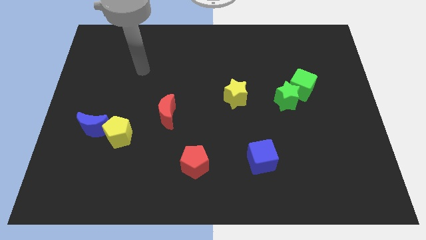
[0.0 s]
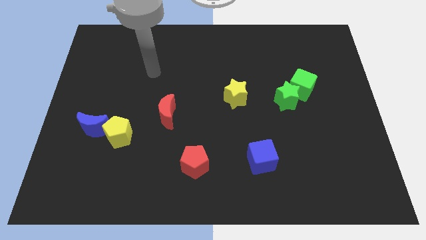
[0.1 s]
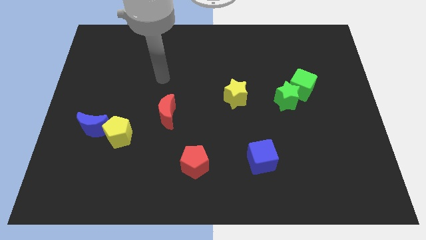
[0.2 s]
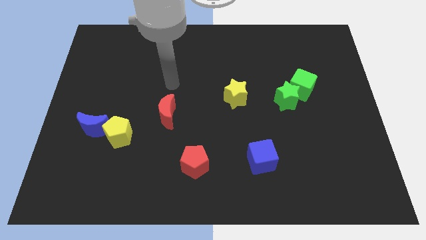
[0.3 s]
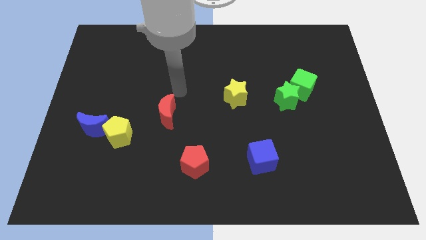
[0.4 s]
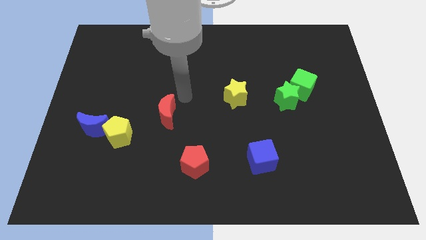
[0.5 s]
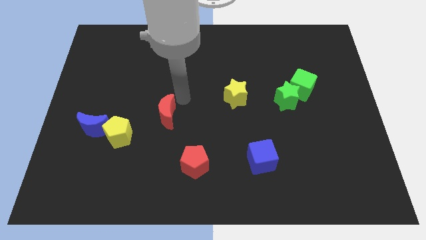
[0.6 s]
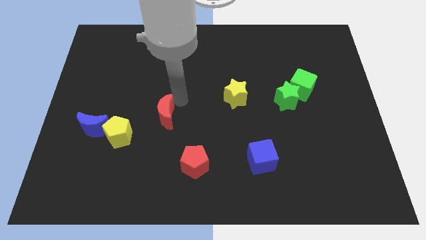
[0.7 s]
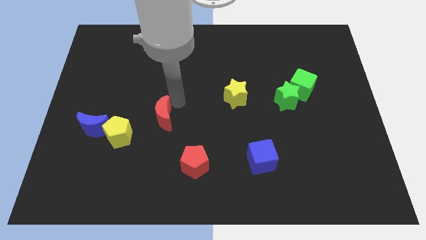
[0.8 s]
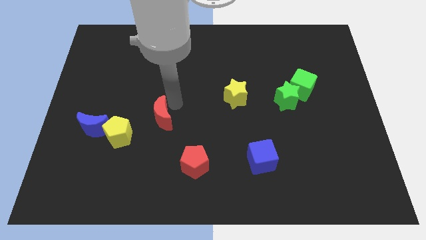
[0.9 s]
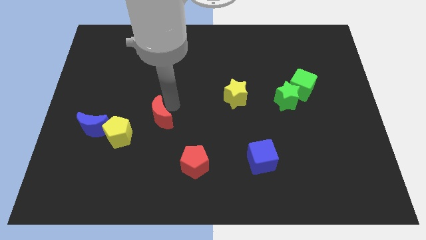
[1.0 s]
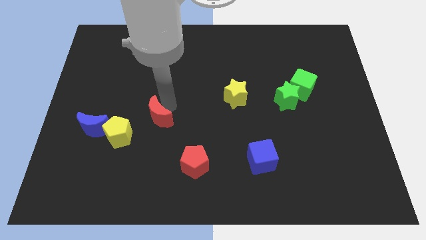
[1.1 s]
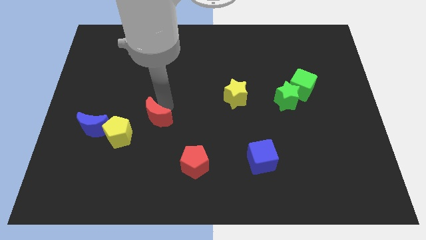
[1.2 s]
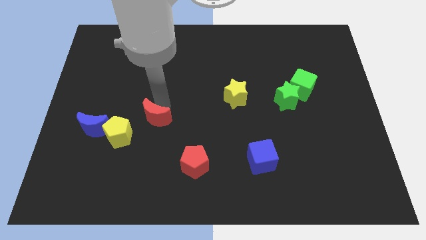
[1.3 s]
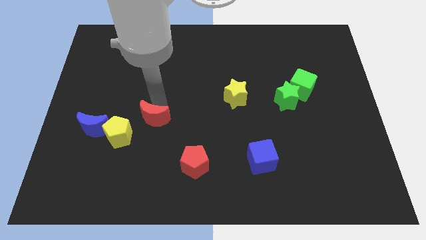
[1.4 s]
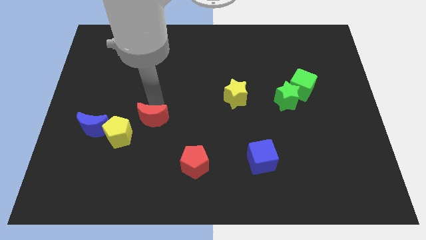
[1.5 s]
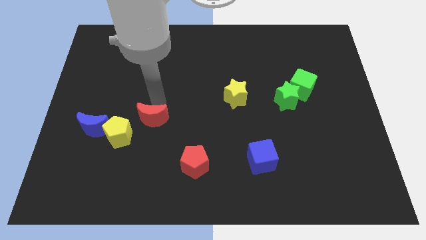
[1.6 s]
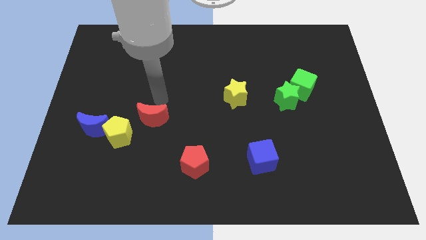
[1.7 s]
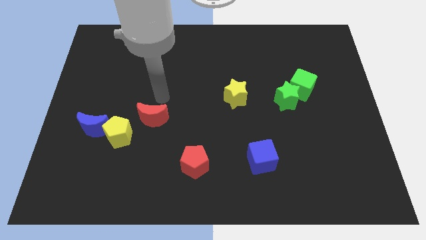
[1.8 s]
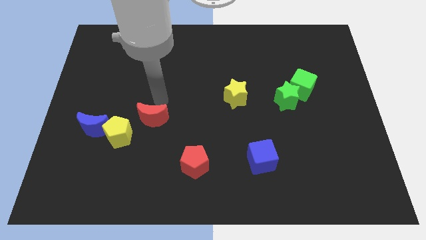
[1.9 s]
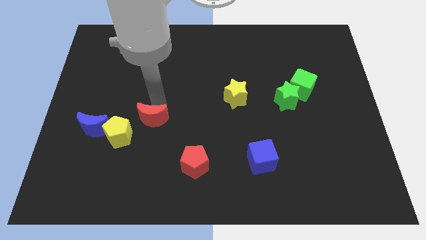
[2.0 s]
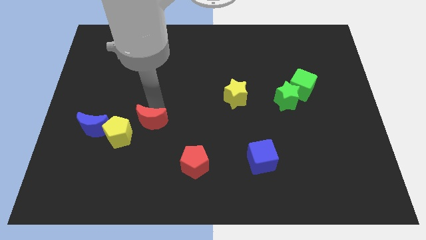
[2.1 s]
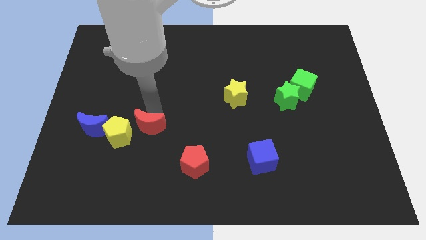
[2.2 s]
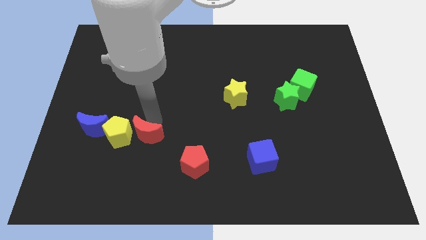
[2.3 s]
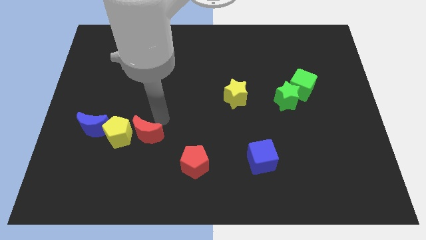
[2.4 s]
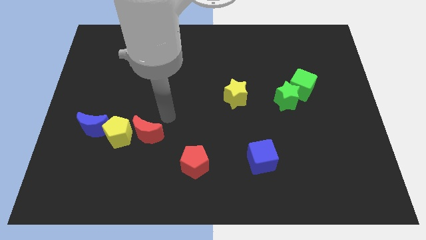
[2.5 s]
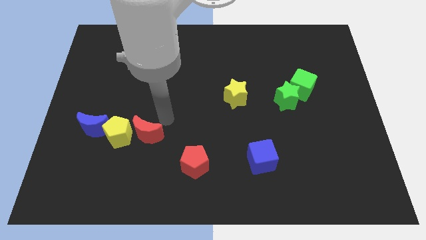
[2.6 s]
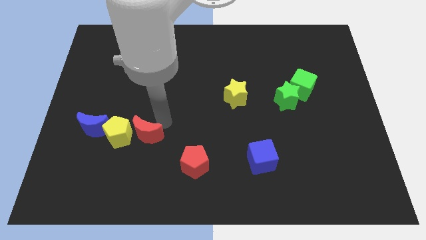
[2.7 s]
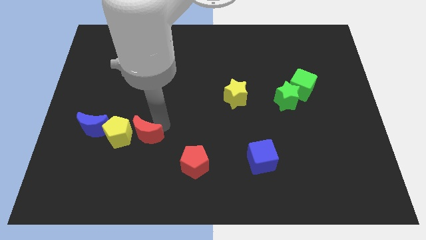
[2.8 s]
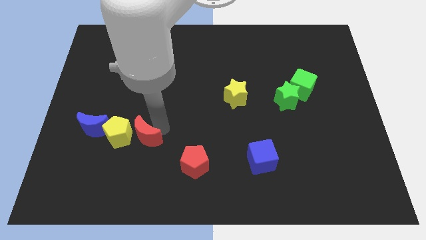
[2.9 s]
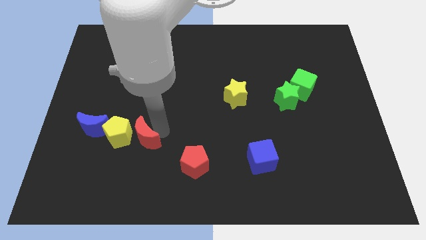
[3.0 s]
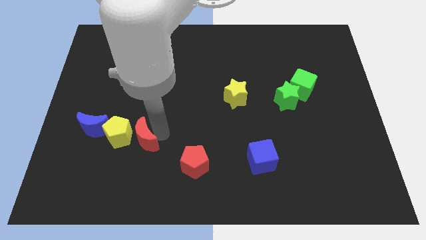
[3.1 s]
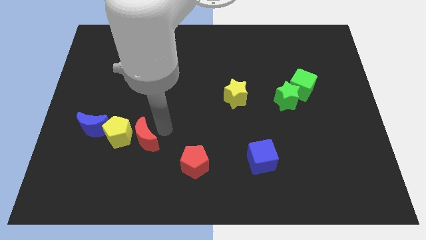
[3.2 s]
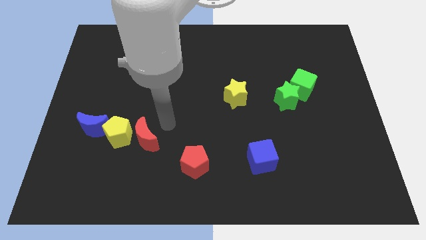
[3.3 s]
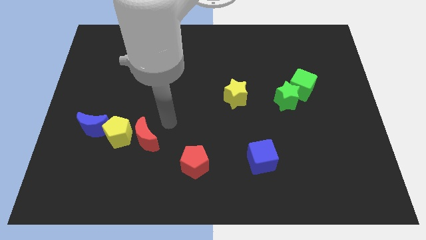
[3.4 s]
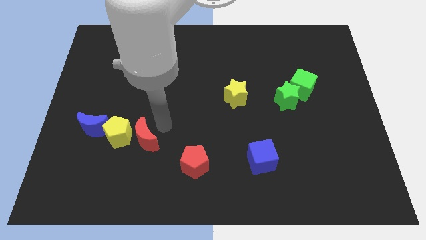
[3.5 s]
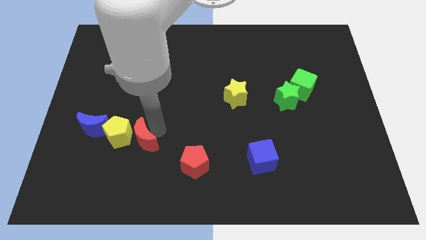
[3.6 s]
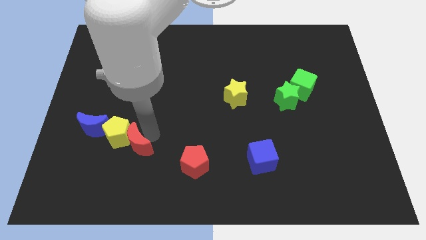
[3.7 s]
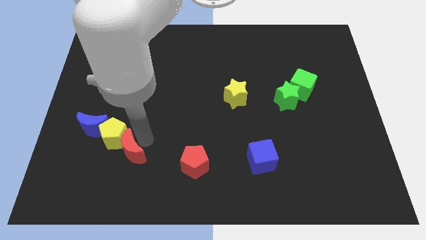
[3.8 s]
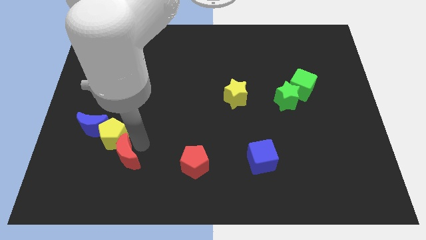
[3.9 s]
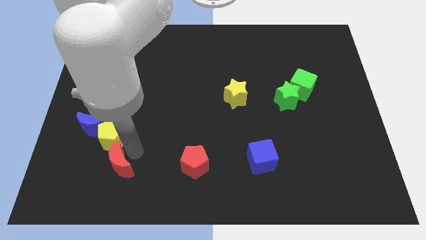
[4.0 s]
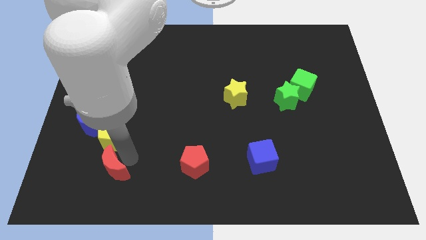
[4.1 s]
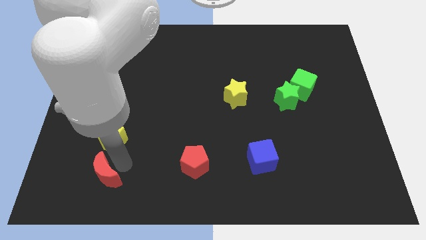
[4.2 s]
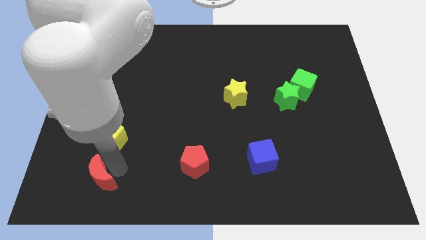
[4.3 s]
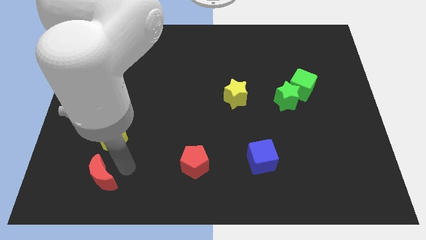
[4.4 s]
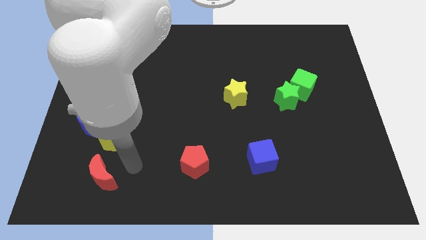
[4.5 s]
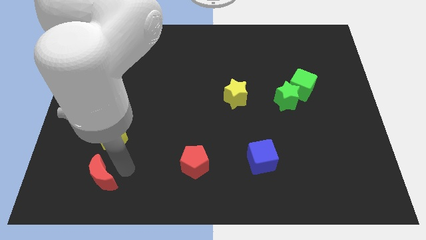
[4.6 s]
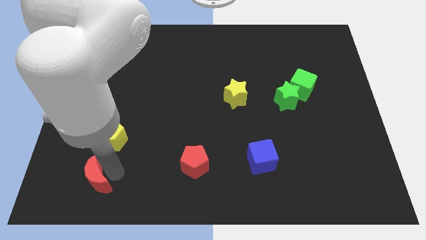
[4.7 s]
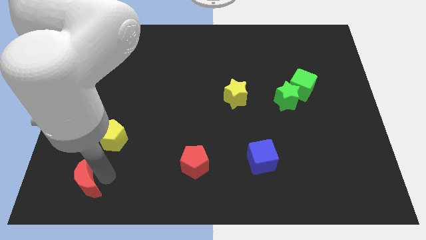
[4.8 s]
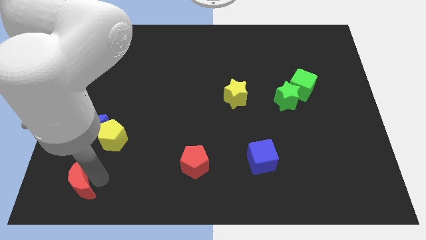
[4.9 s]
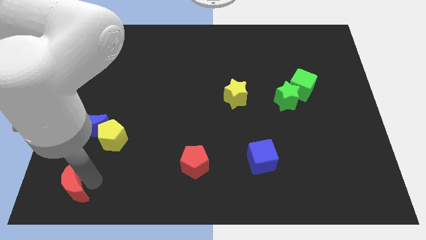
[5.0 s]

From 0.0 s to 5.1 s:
slide the red moon to the bottom left corner

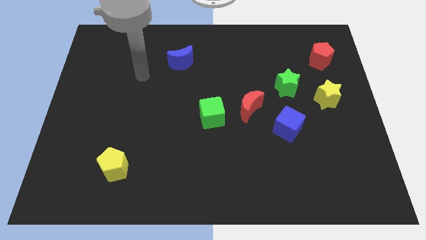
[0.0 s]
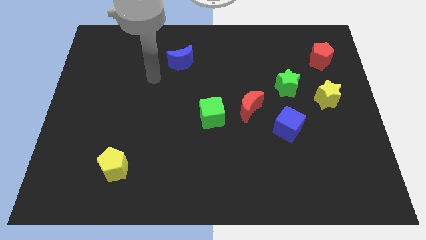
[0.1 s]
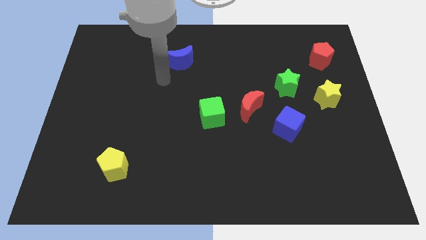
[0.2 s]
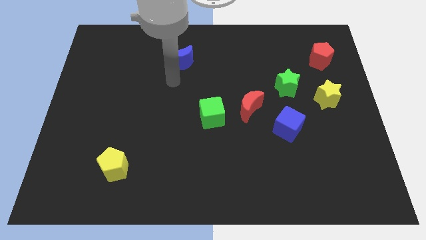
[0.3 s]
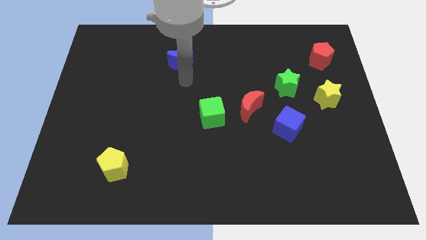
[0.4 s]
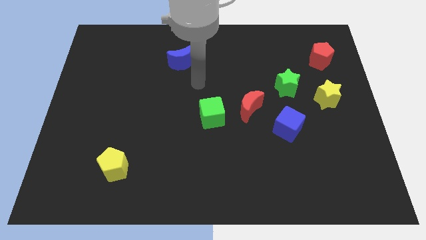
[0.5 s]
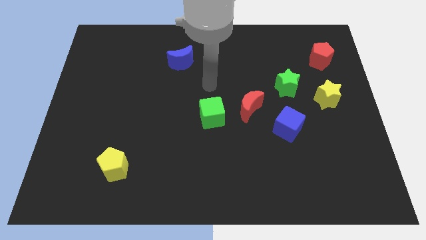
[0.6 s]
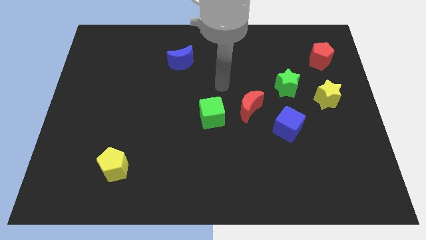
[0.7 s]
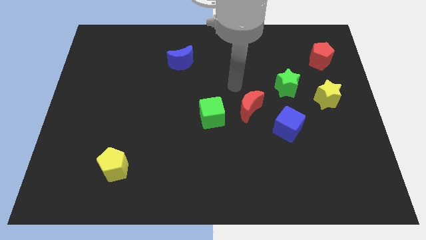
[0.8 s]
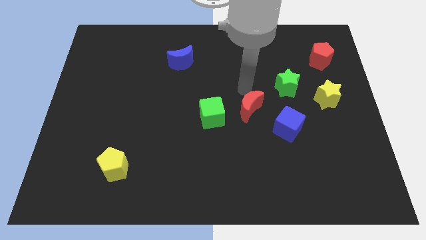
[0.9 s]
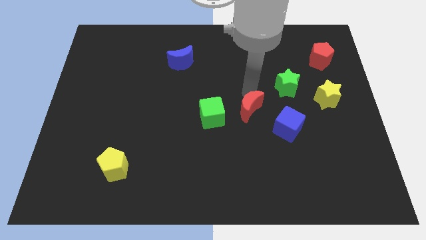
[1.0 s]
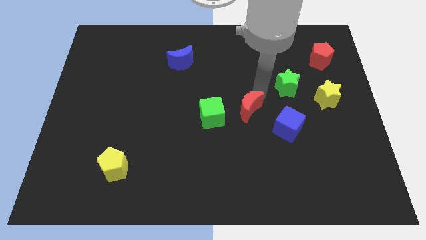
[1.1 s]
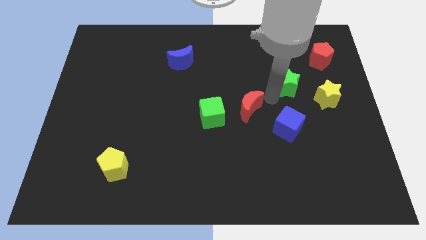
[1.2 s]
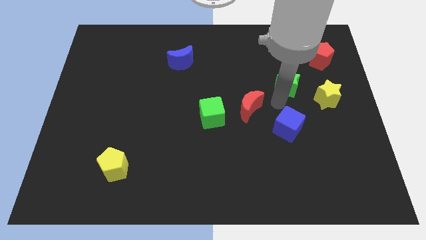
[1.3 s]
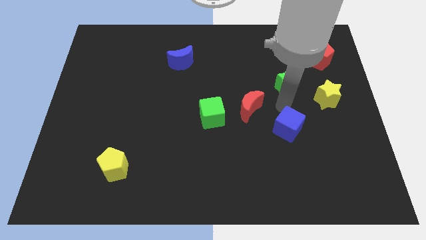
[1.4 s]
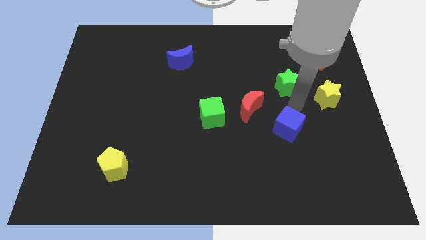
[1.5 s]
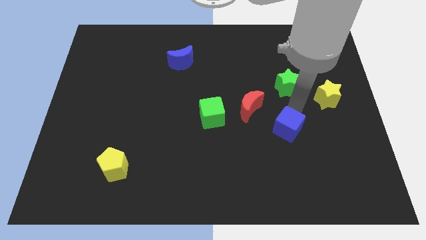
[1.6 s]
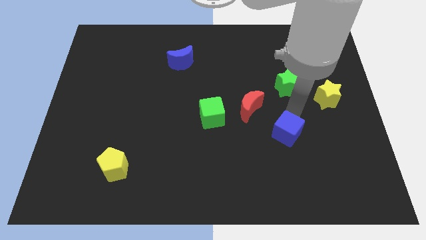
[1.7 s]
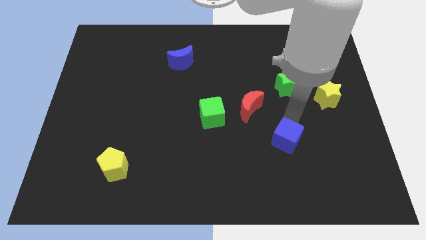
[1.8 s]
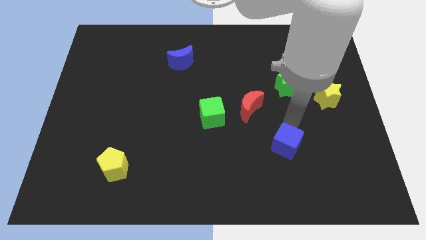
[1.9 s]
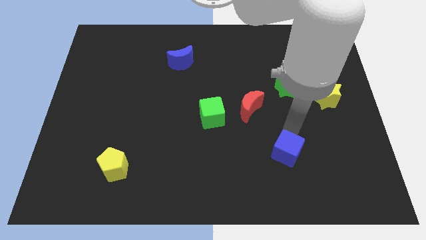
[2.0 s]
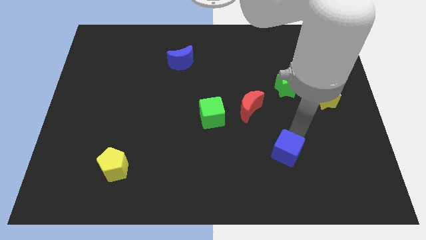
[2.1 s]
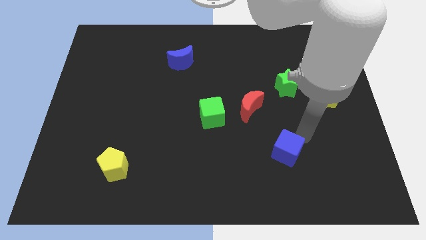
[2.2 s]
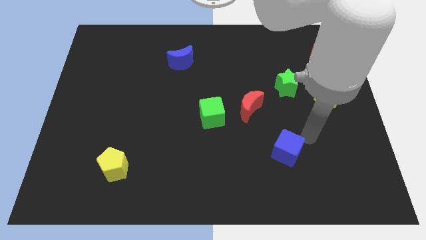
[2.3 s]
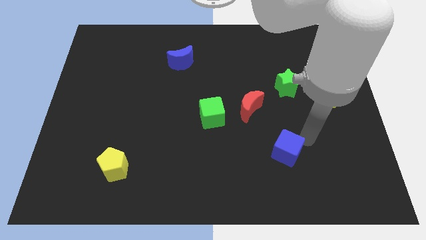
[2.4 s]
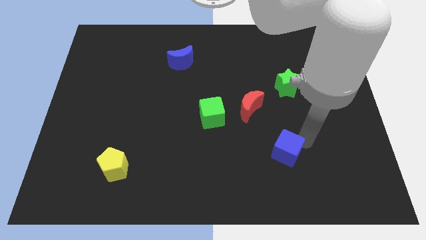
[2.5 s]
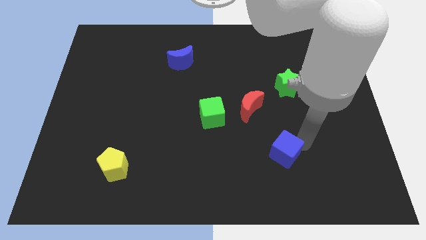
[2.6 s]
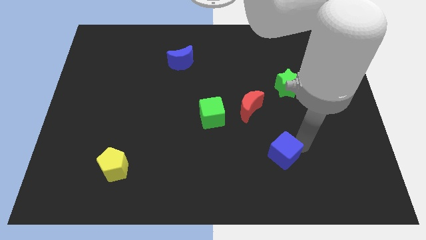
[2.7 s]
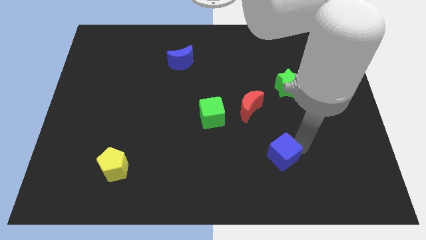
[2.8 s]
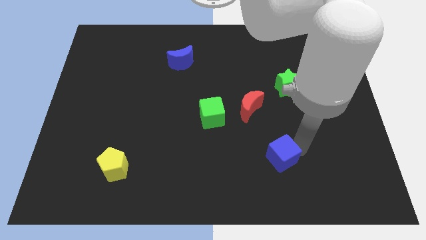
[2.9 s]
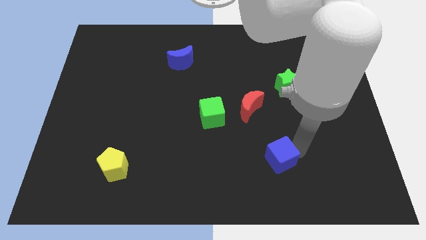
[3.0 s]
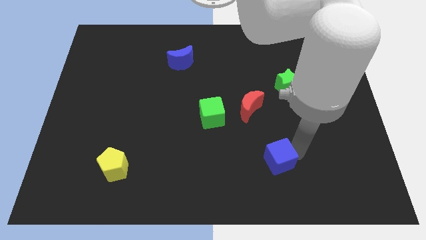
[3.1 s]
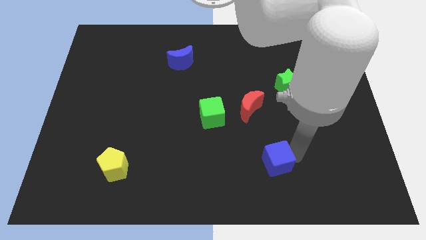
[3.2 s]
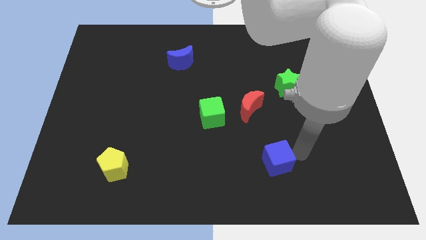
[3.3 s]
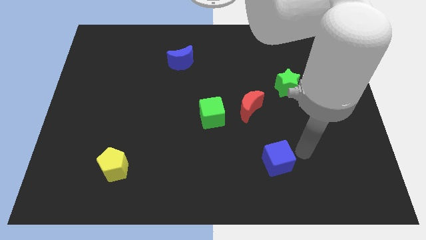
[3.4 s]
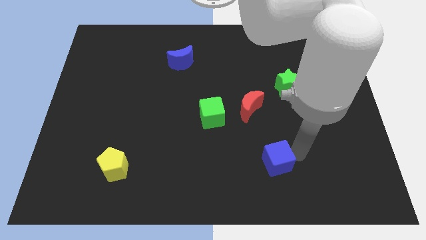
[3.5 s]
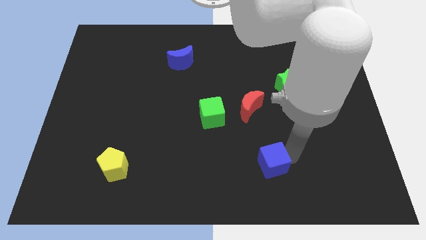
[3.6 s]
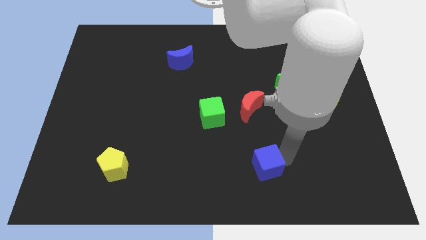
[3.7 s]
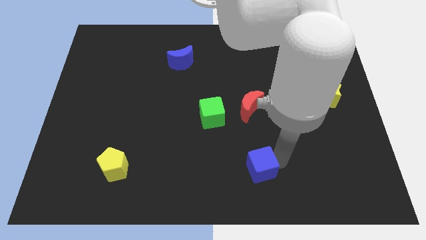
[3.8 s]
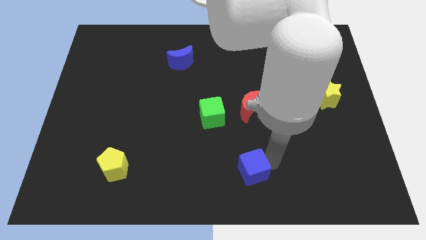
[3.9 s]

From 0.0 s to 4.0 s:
slide the blue cube to the bottom side
